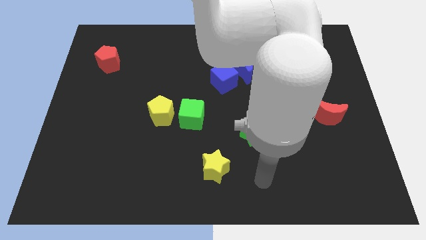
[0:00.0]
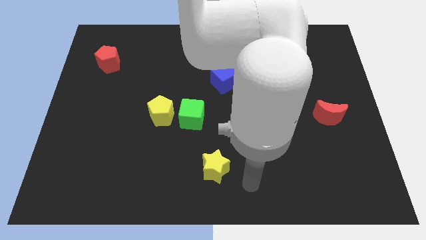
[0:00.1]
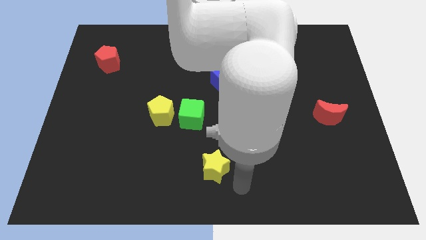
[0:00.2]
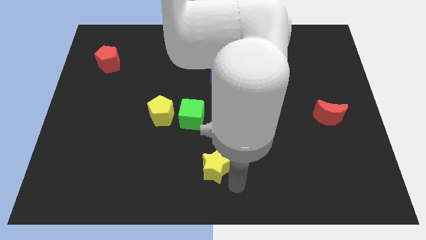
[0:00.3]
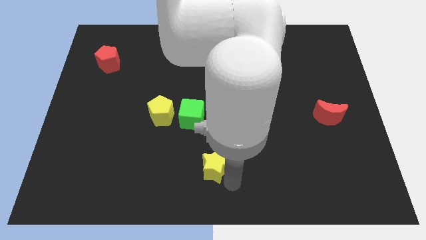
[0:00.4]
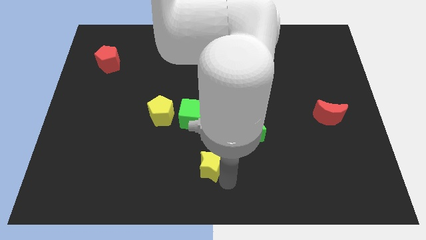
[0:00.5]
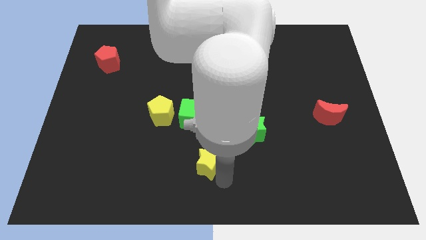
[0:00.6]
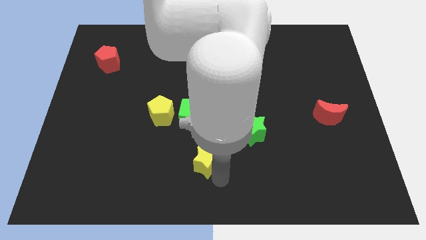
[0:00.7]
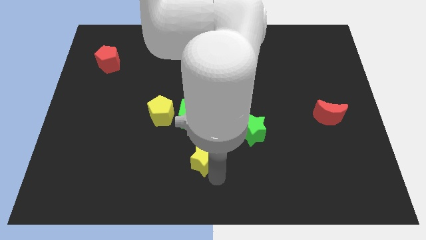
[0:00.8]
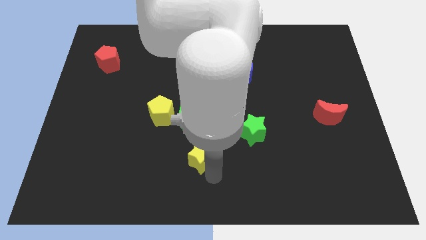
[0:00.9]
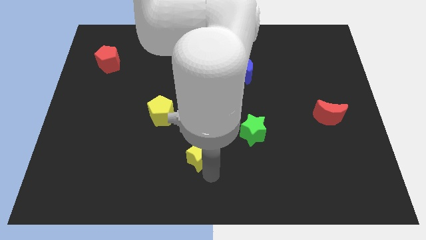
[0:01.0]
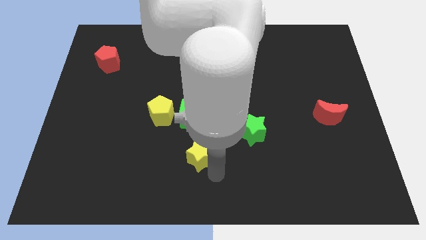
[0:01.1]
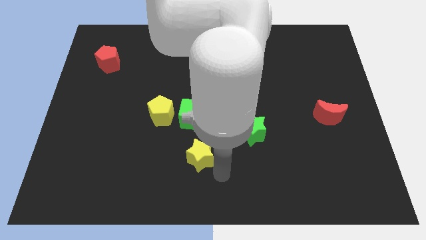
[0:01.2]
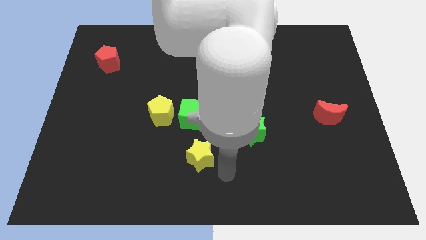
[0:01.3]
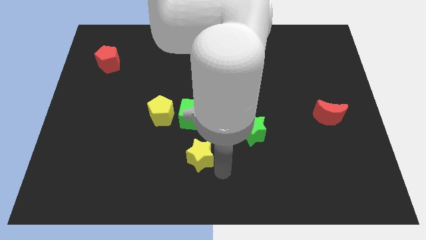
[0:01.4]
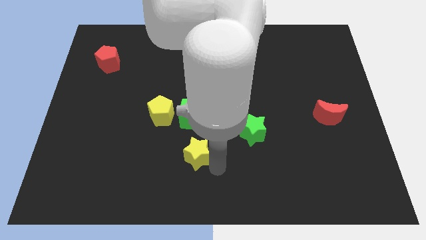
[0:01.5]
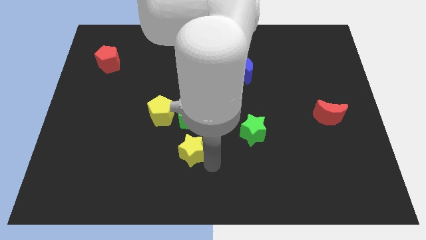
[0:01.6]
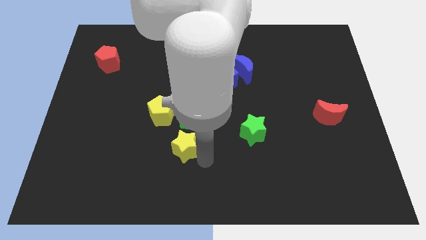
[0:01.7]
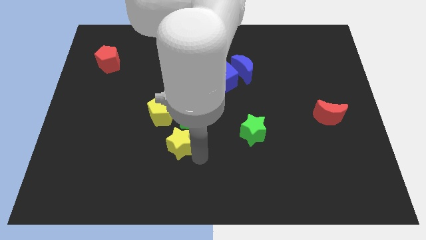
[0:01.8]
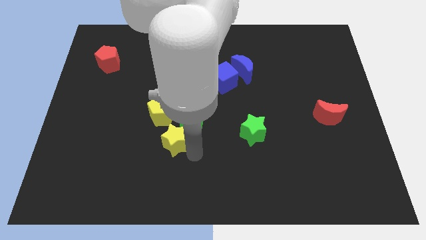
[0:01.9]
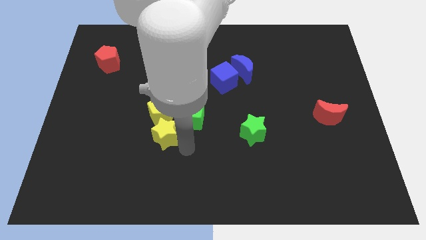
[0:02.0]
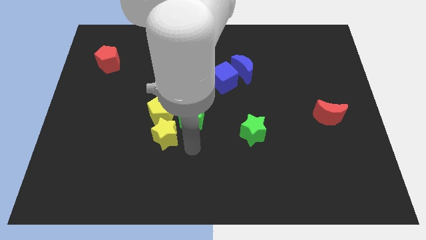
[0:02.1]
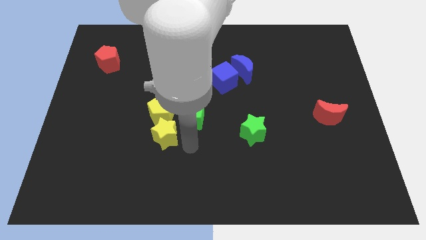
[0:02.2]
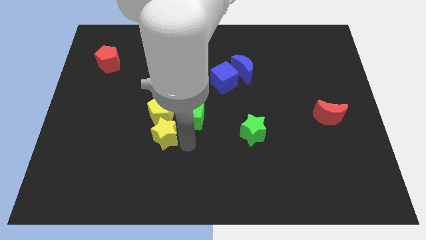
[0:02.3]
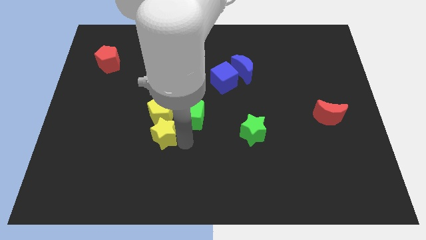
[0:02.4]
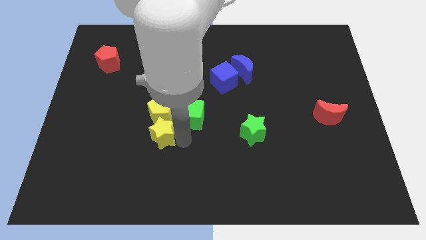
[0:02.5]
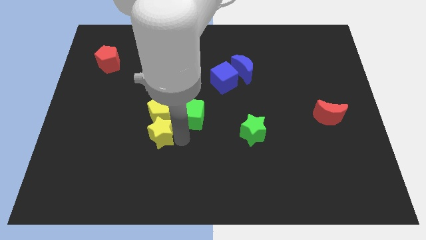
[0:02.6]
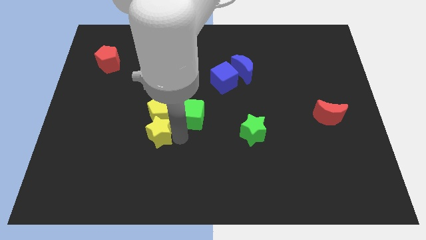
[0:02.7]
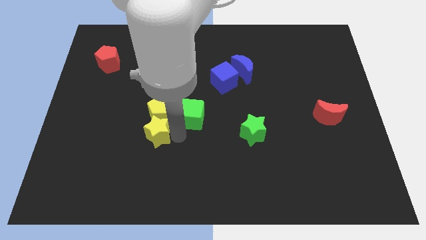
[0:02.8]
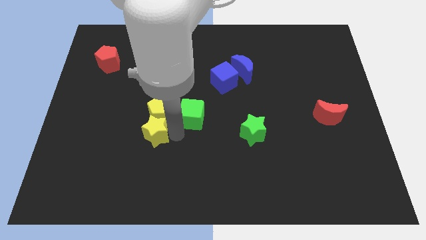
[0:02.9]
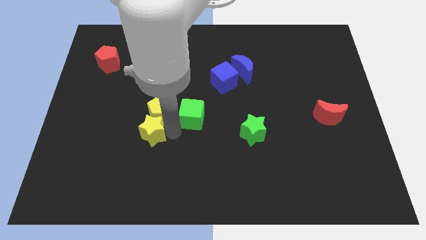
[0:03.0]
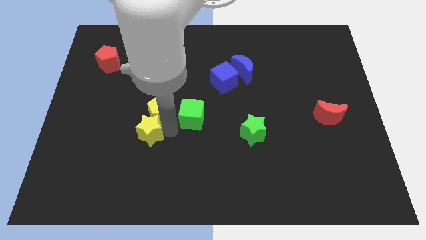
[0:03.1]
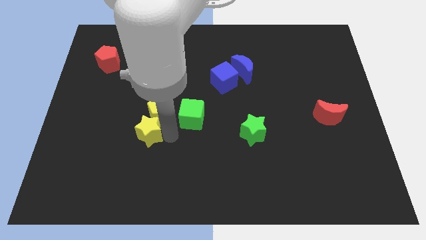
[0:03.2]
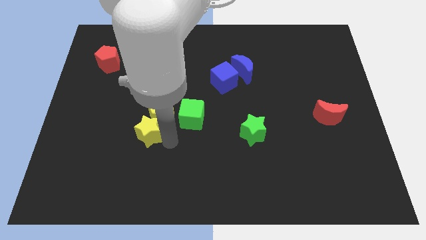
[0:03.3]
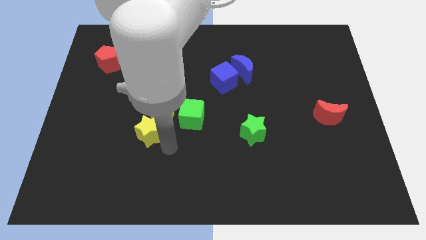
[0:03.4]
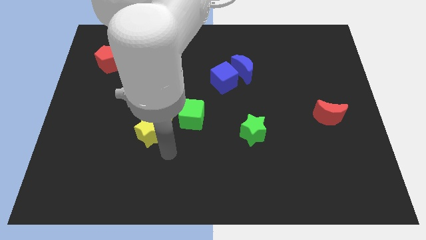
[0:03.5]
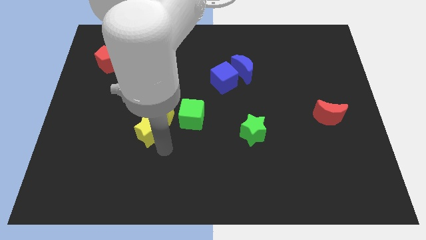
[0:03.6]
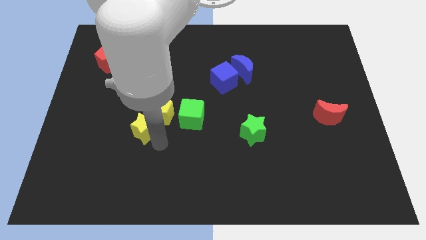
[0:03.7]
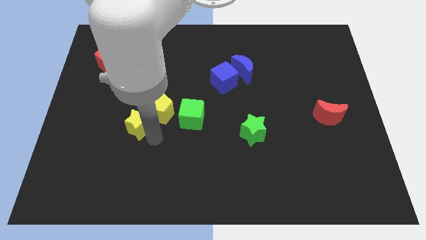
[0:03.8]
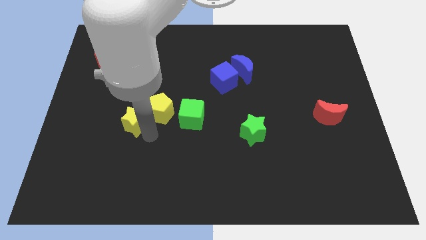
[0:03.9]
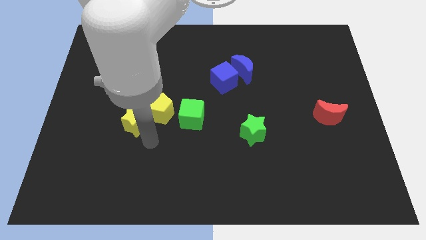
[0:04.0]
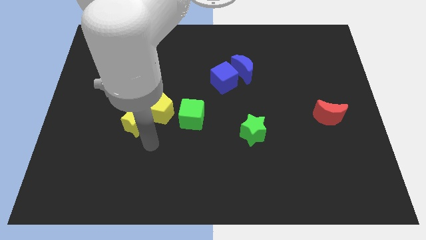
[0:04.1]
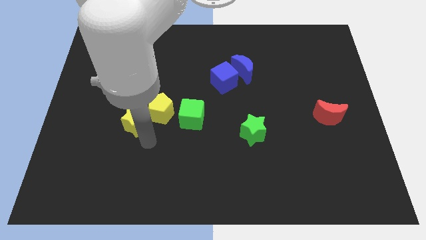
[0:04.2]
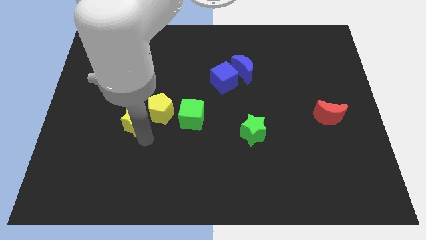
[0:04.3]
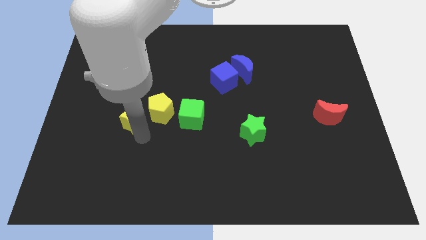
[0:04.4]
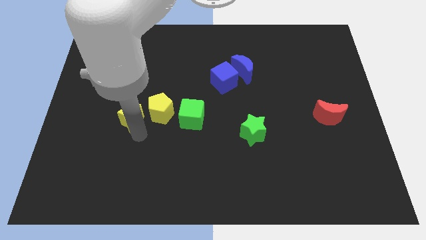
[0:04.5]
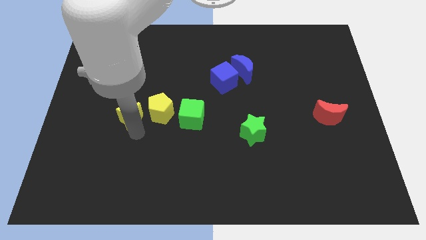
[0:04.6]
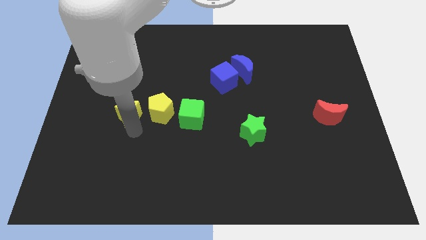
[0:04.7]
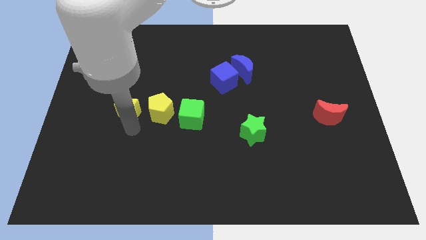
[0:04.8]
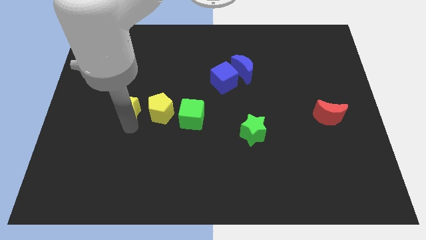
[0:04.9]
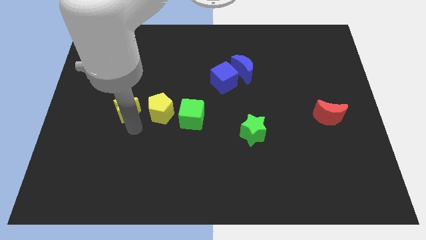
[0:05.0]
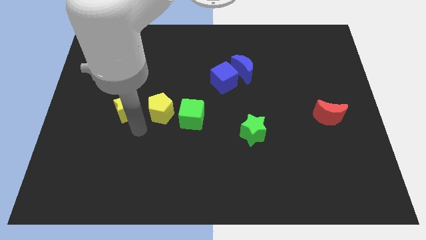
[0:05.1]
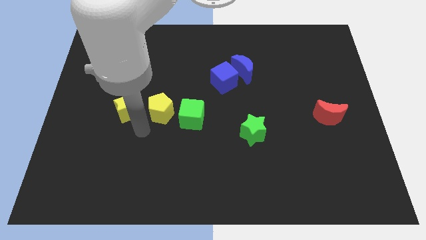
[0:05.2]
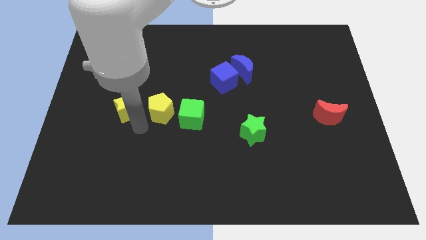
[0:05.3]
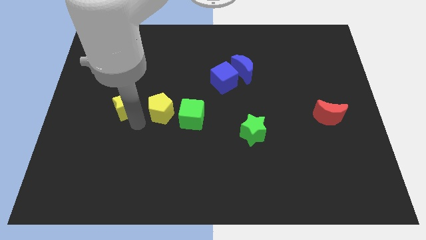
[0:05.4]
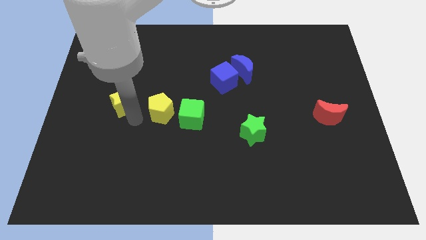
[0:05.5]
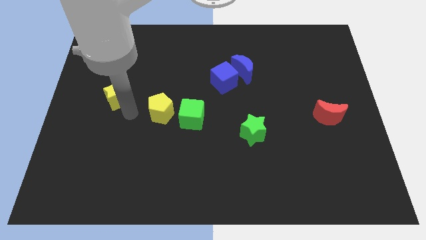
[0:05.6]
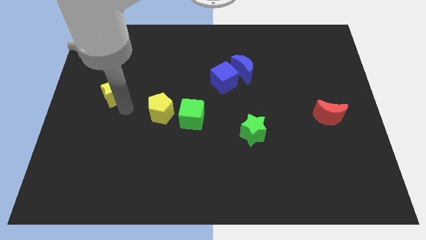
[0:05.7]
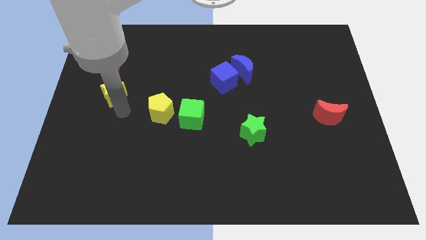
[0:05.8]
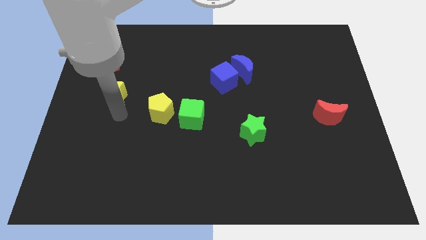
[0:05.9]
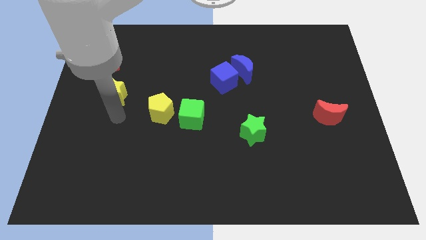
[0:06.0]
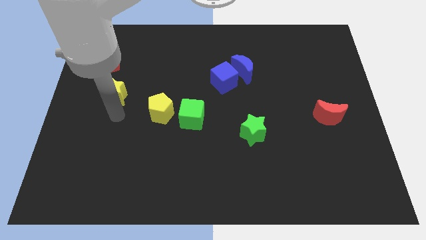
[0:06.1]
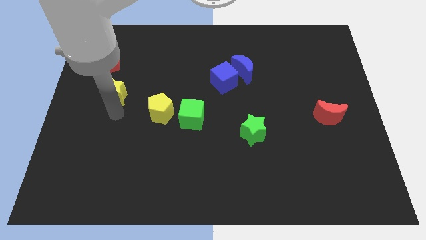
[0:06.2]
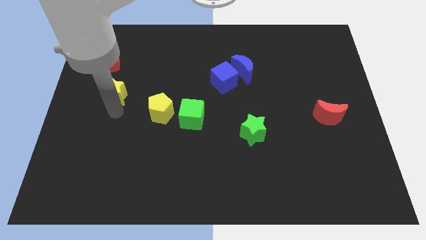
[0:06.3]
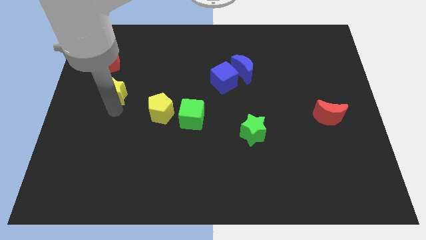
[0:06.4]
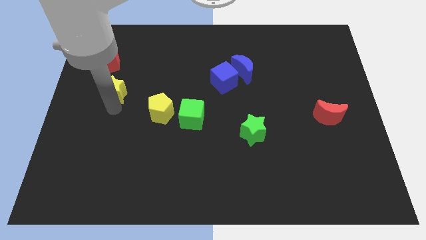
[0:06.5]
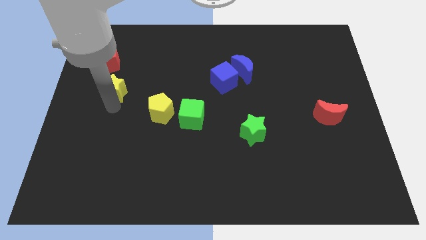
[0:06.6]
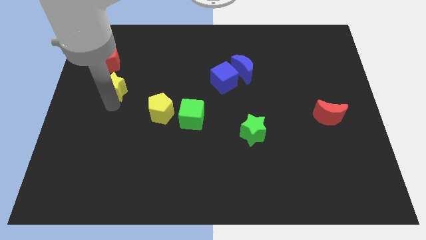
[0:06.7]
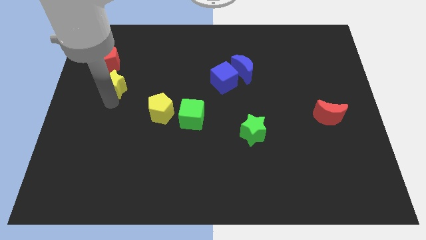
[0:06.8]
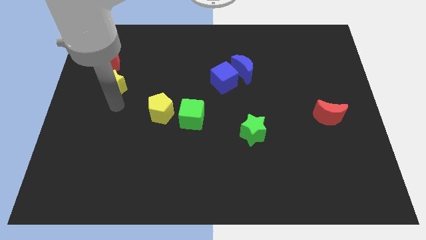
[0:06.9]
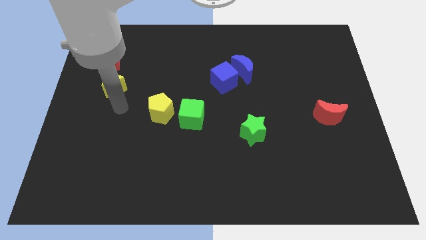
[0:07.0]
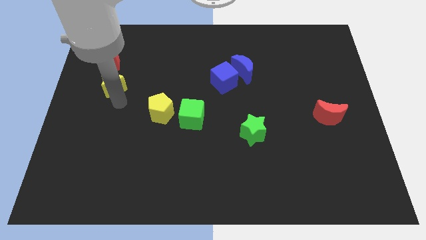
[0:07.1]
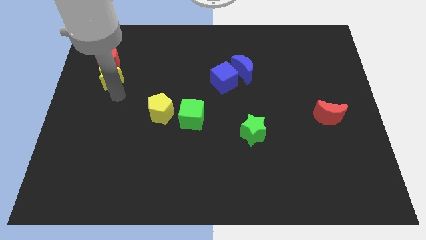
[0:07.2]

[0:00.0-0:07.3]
slide the yellow star towards the red pentagon

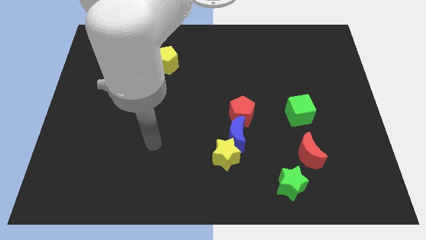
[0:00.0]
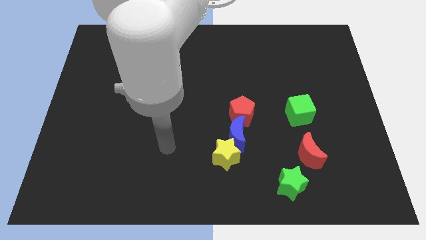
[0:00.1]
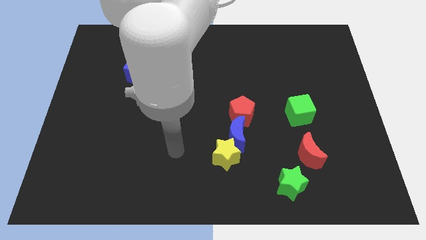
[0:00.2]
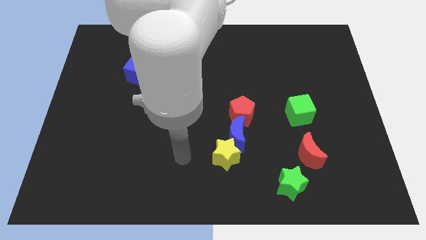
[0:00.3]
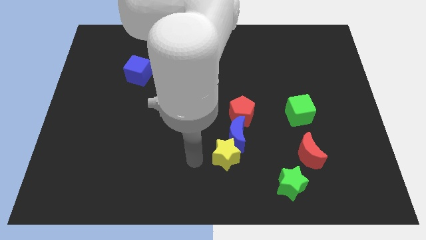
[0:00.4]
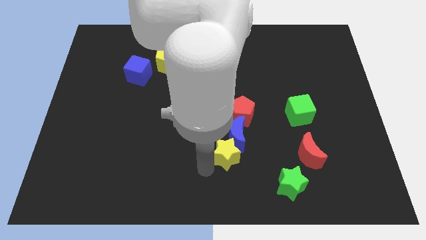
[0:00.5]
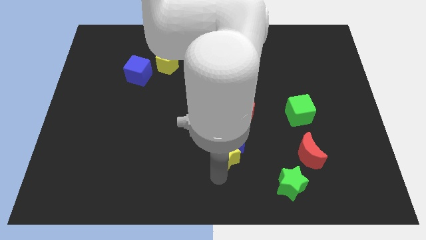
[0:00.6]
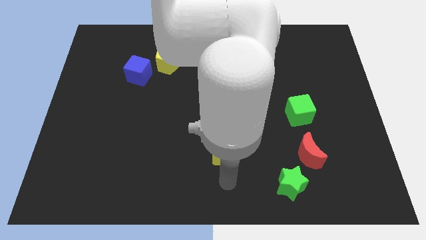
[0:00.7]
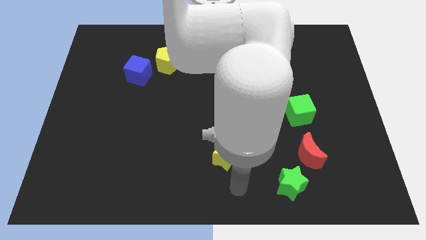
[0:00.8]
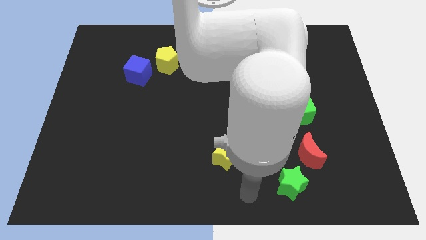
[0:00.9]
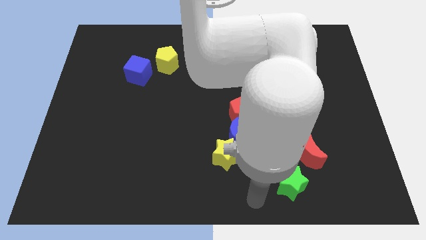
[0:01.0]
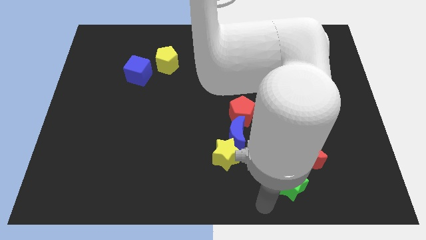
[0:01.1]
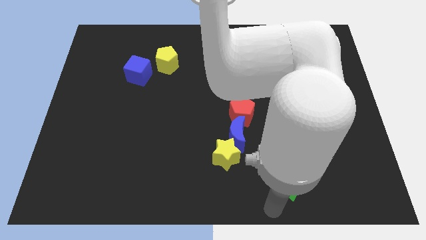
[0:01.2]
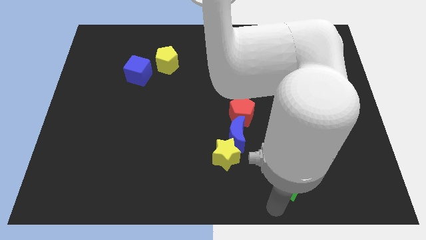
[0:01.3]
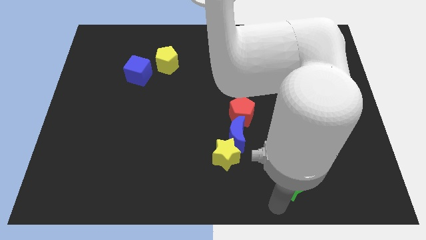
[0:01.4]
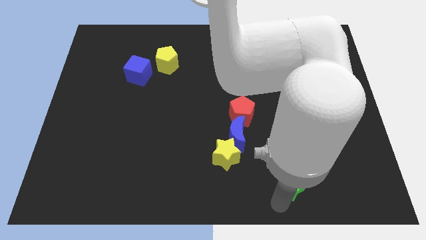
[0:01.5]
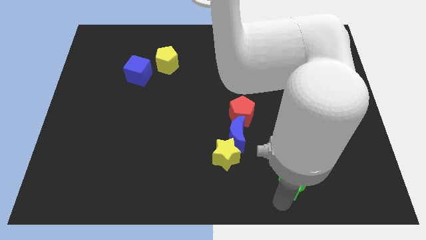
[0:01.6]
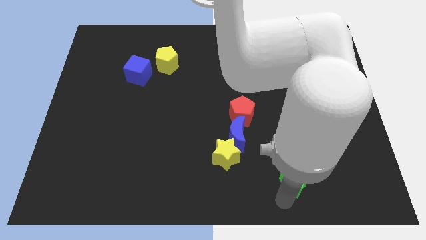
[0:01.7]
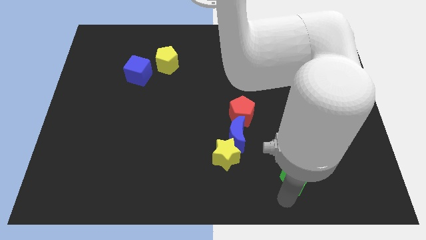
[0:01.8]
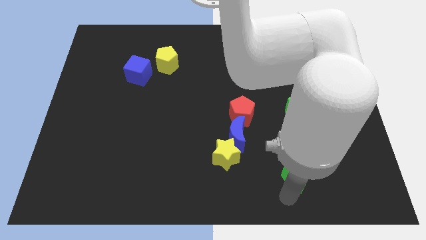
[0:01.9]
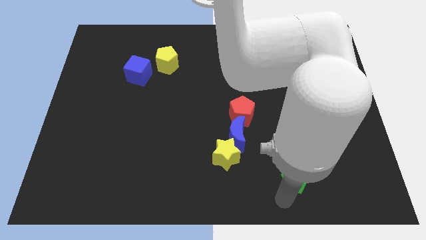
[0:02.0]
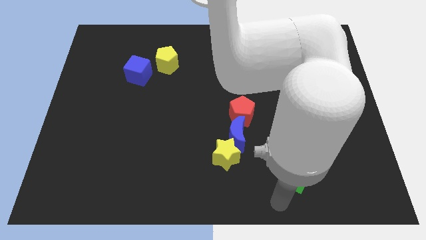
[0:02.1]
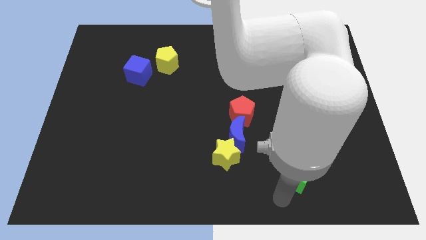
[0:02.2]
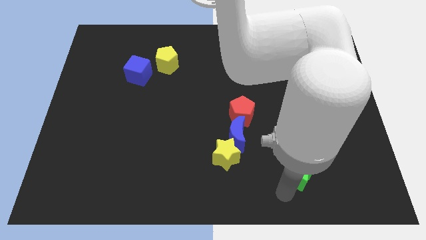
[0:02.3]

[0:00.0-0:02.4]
put the green star to the red moon
